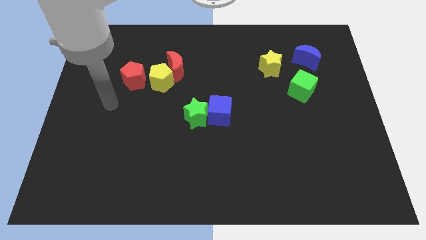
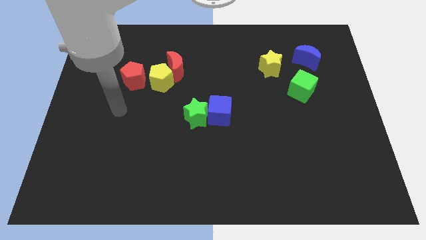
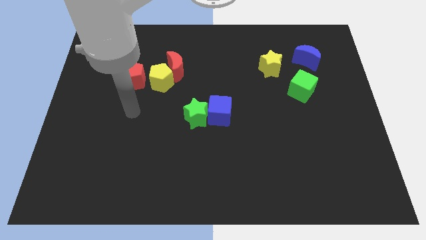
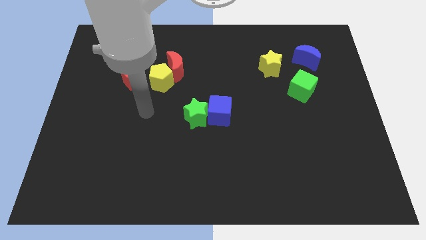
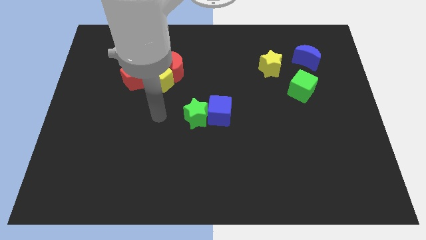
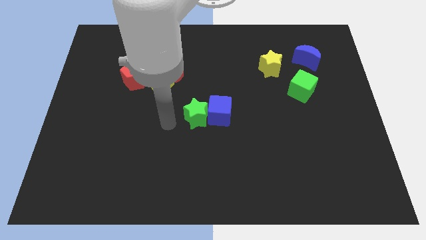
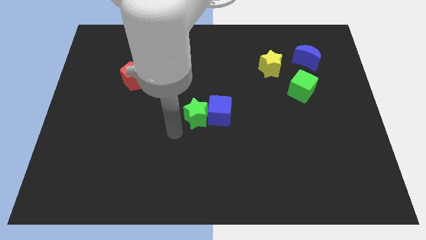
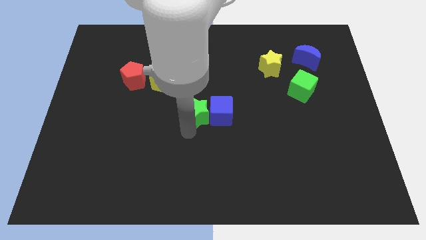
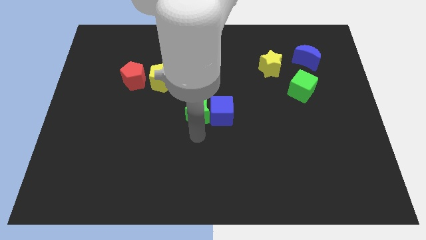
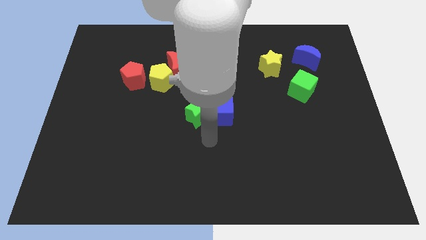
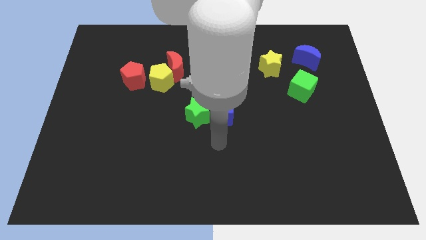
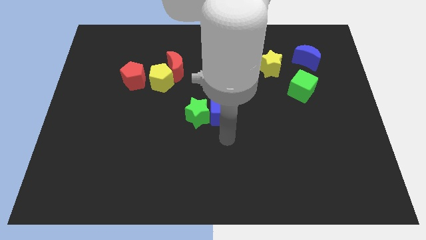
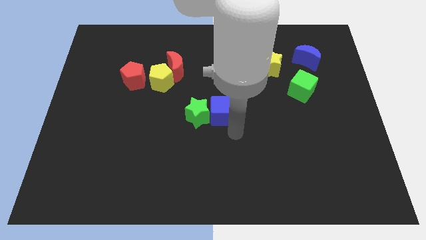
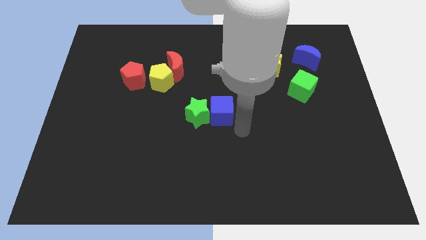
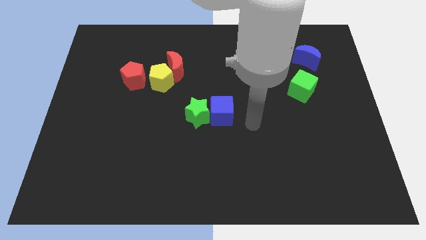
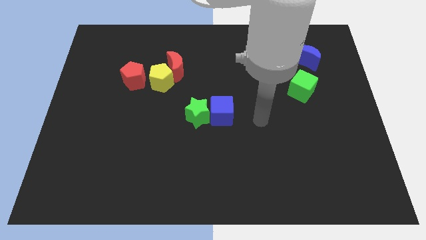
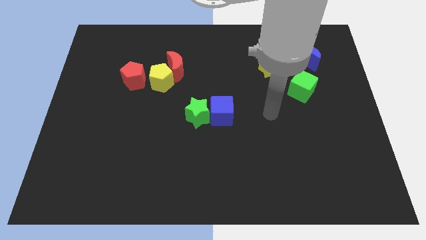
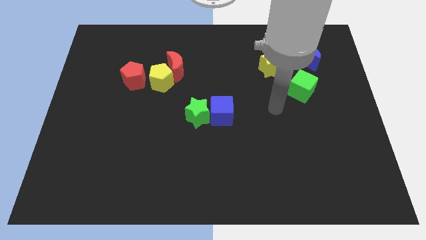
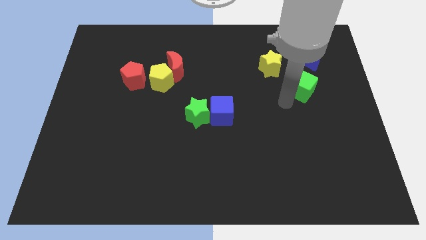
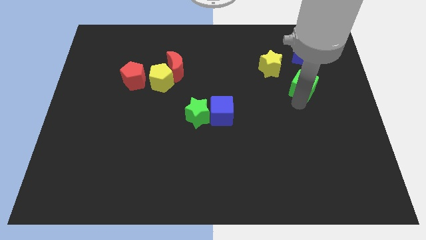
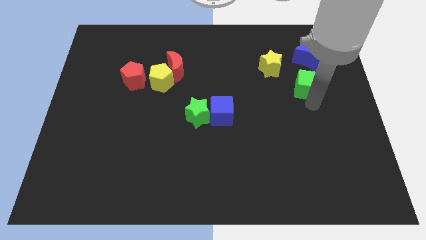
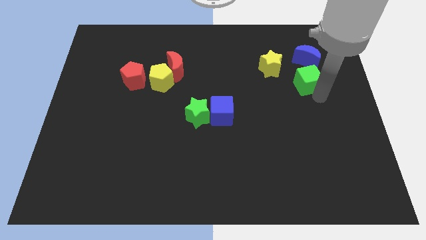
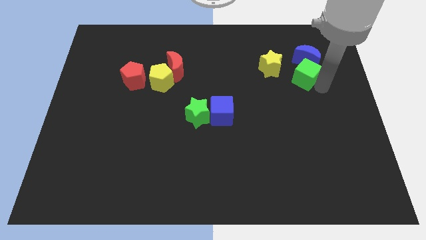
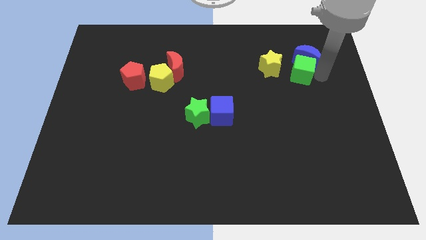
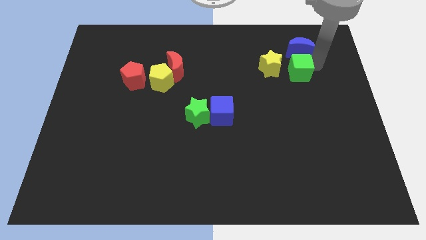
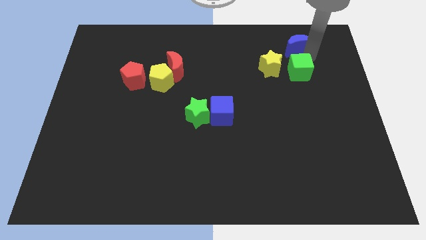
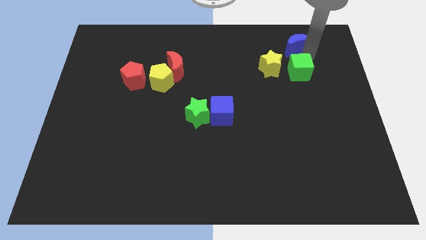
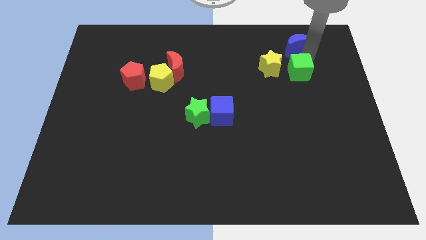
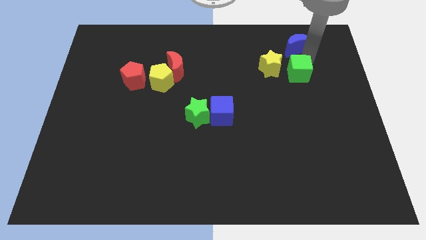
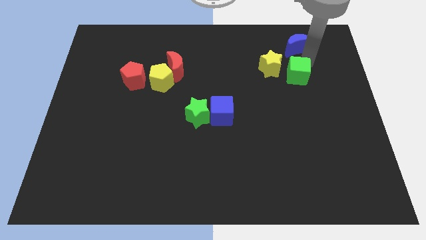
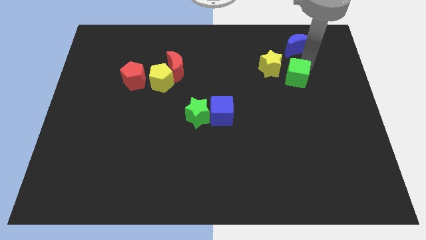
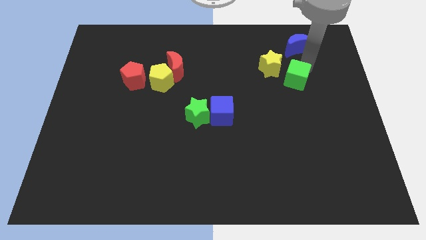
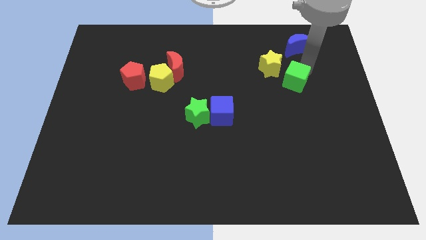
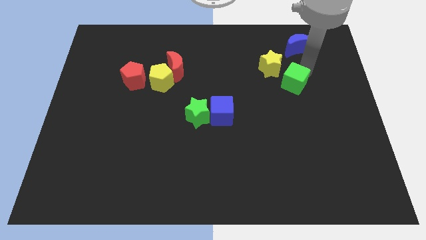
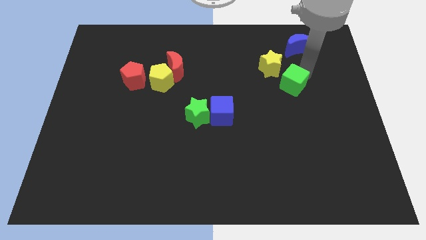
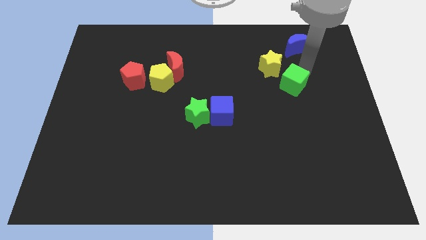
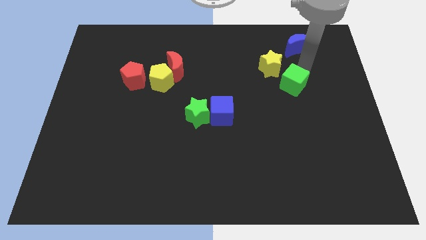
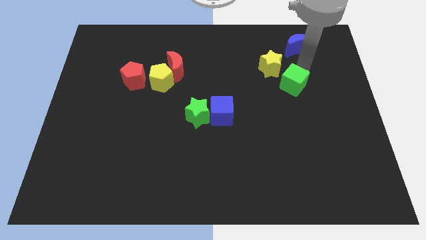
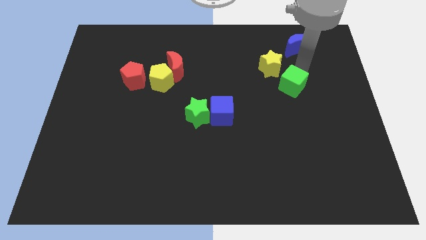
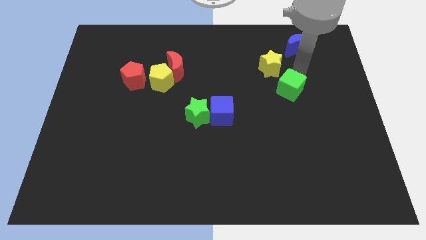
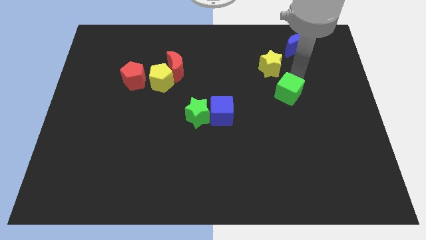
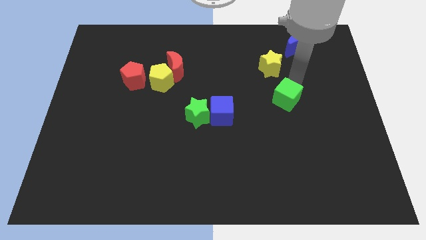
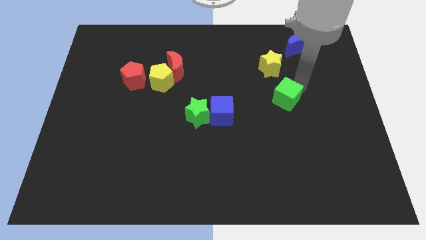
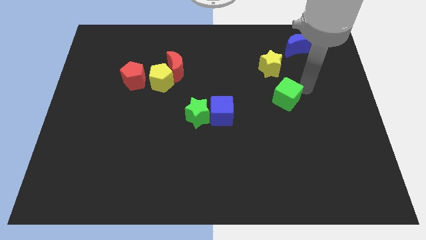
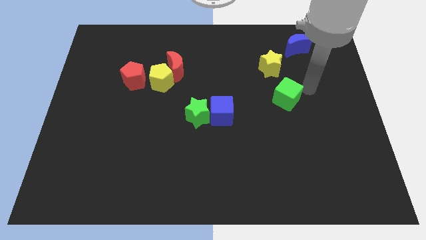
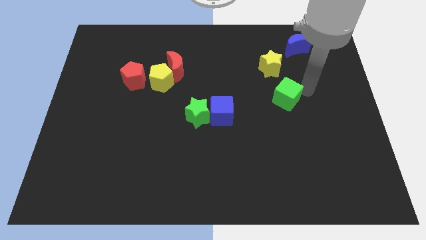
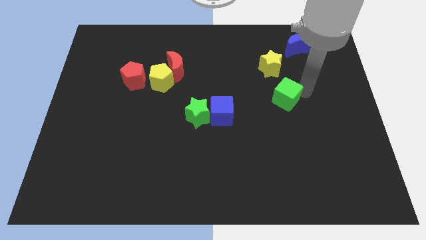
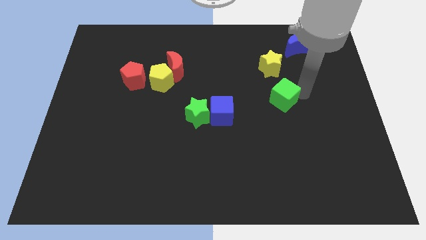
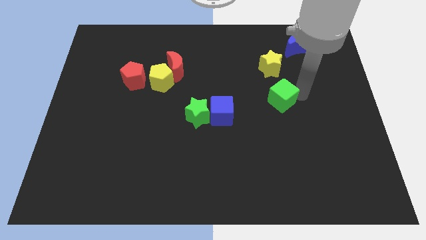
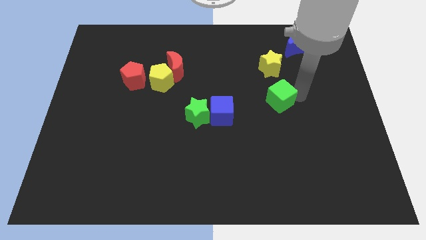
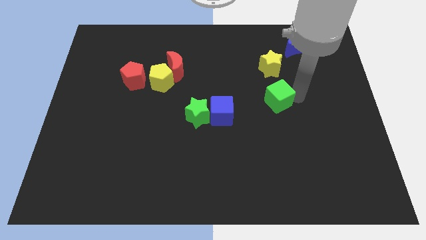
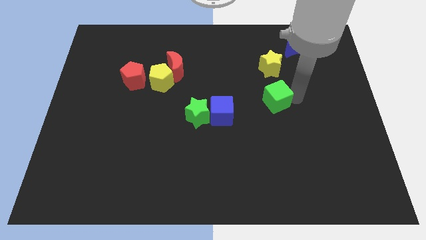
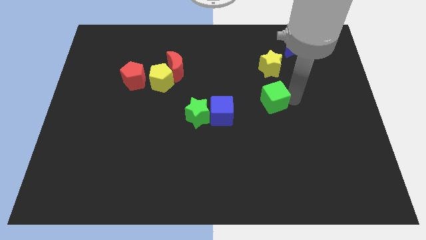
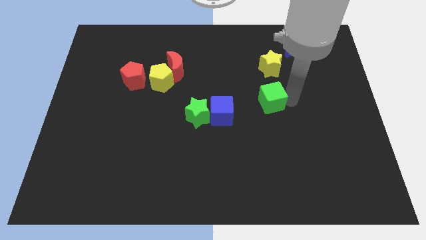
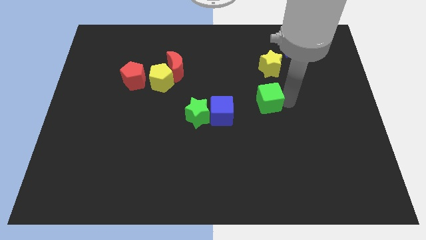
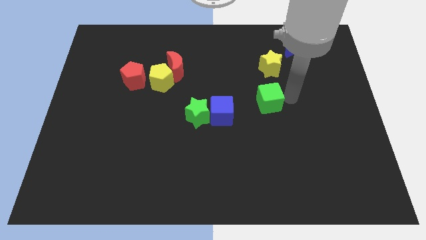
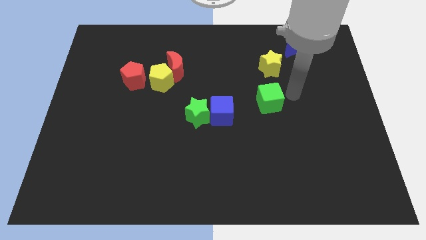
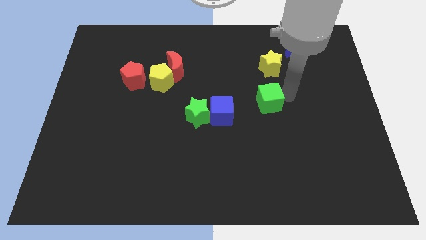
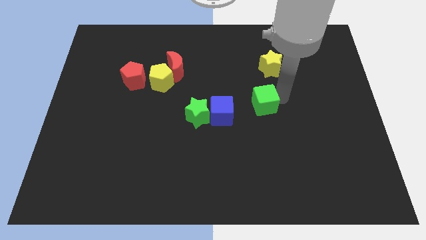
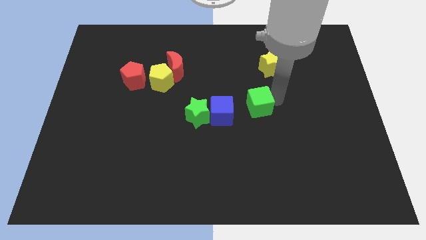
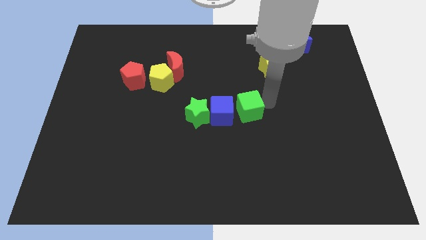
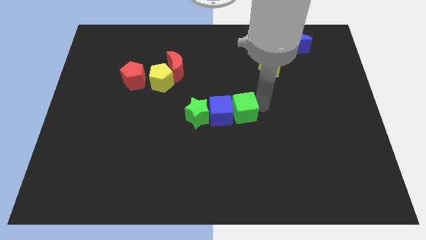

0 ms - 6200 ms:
move the green cube next to the blue cube

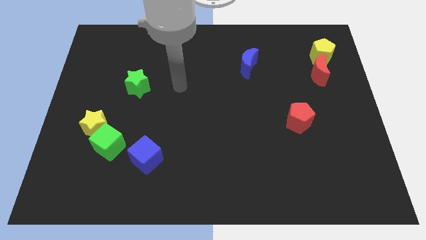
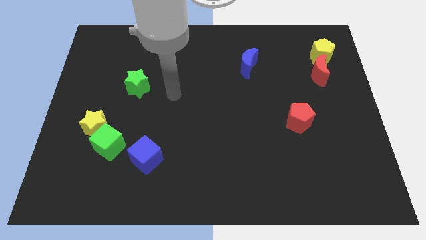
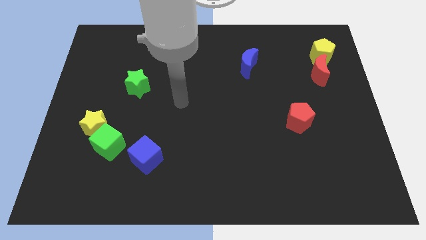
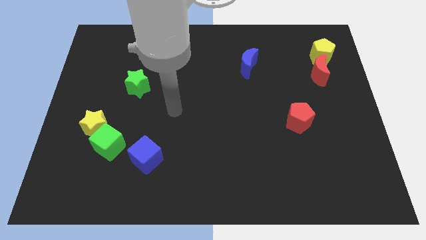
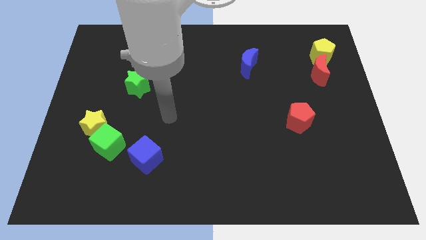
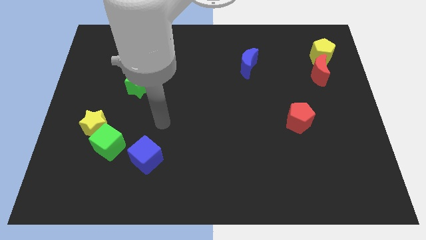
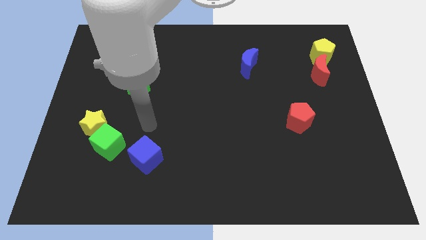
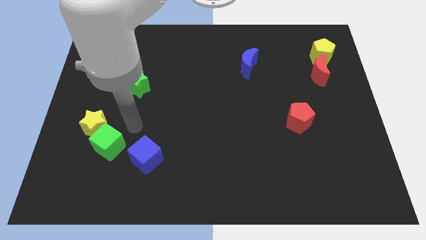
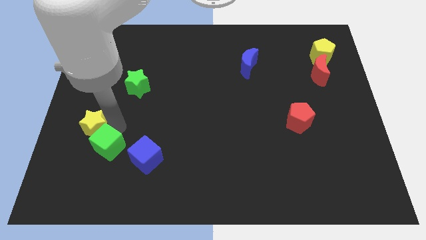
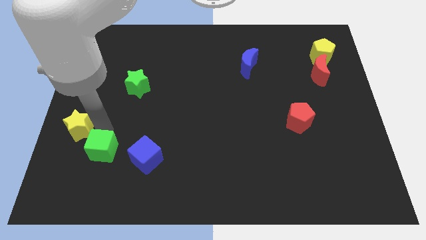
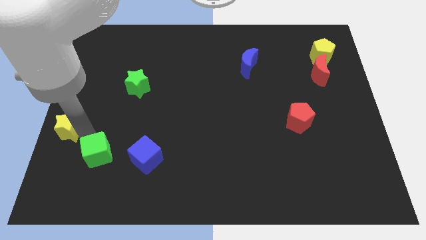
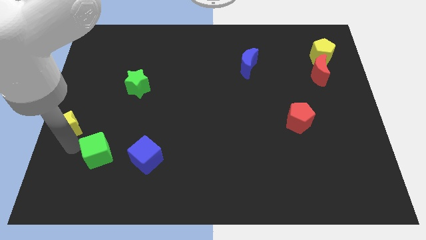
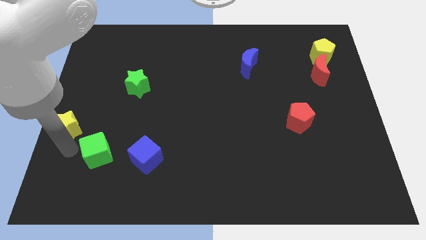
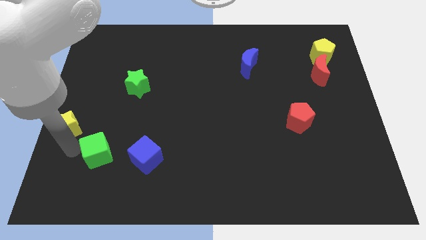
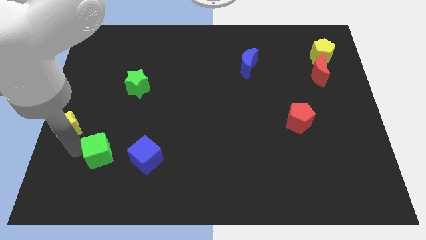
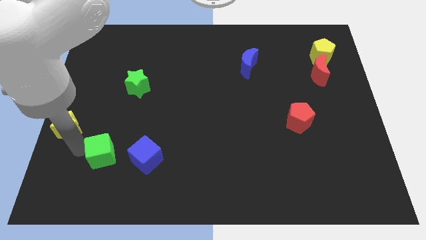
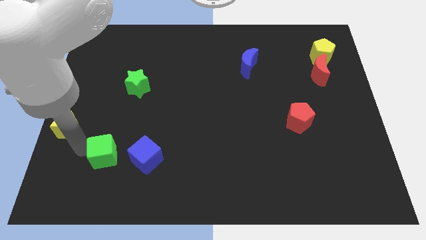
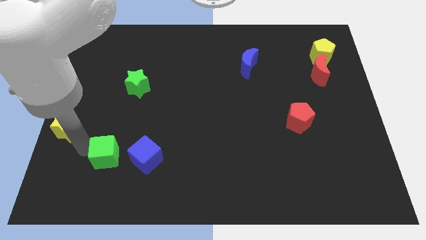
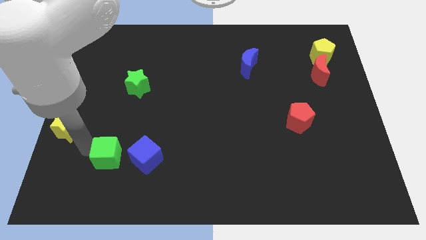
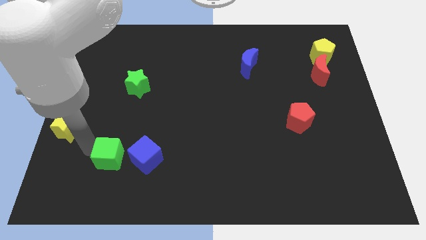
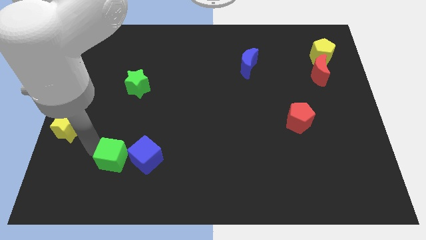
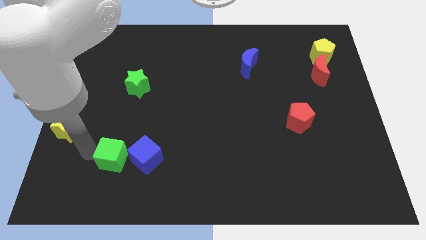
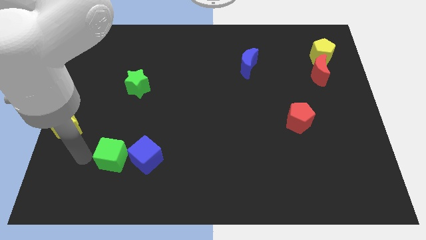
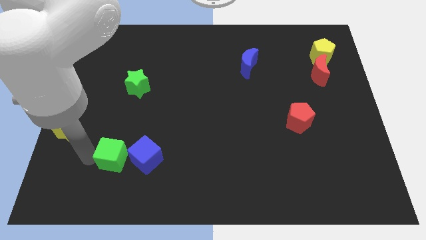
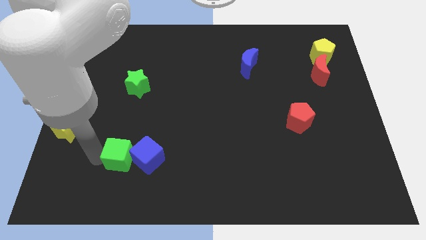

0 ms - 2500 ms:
push the green cube towards the blue cube
